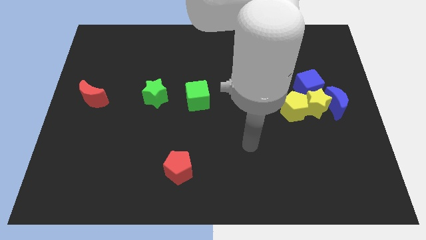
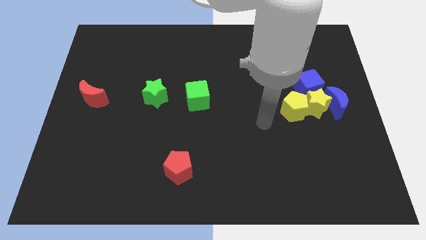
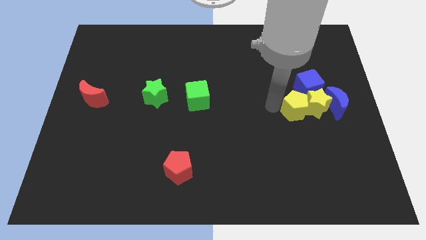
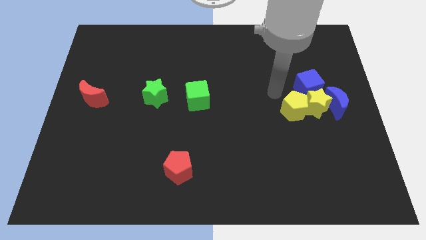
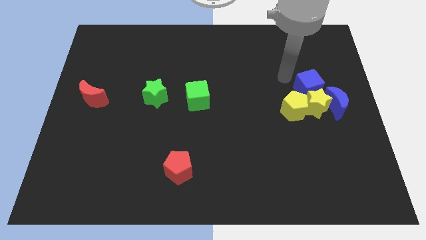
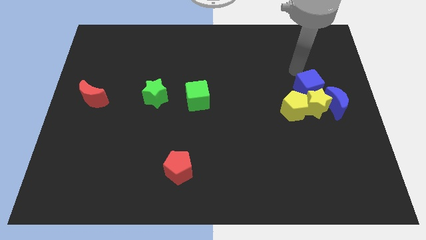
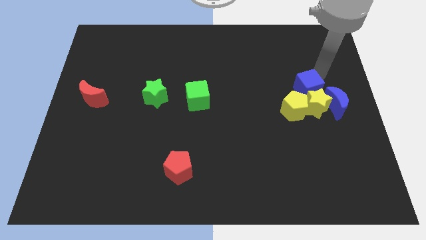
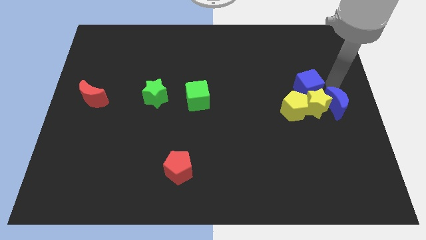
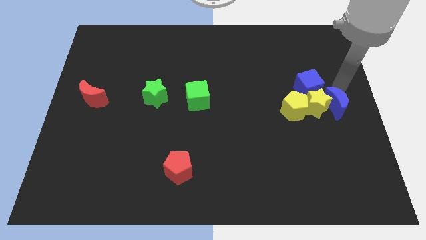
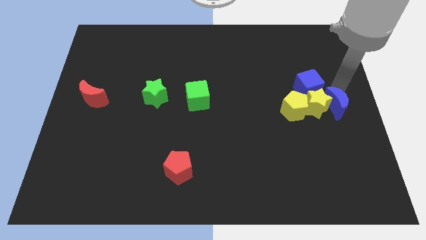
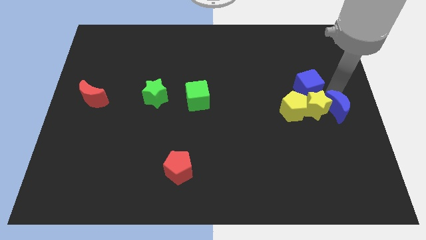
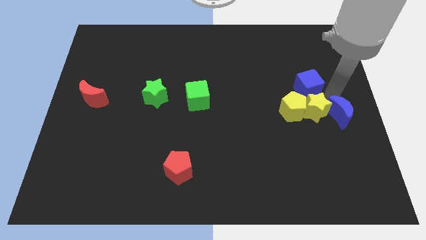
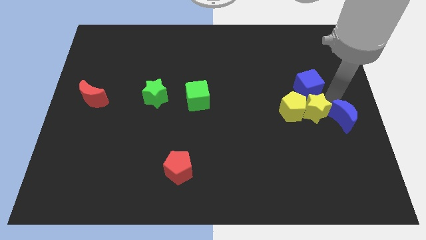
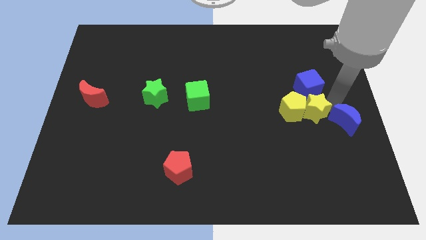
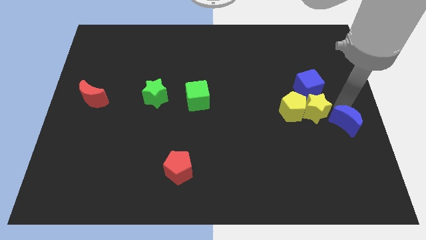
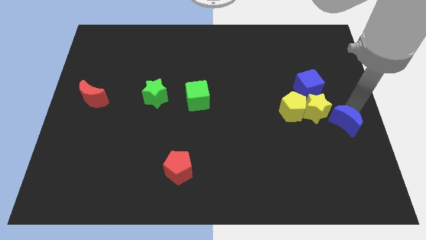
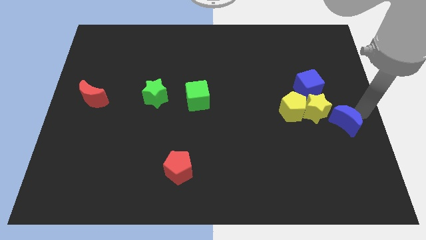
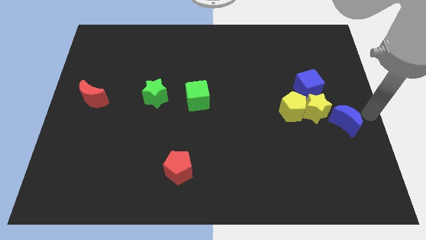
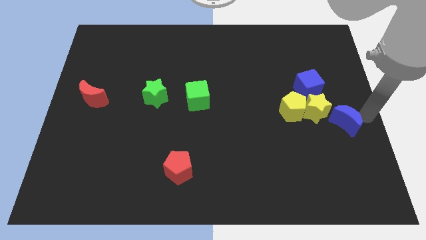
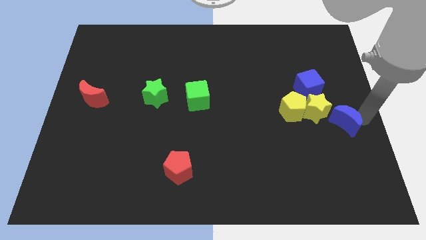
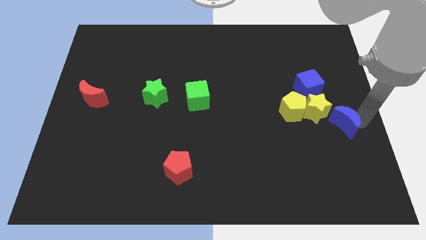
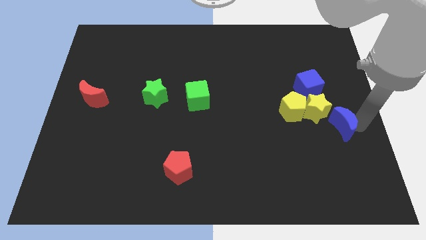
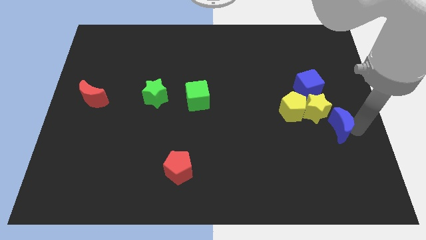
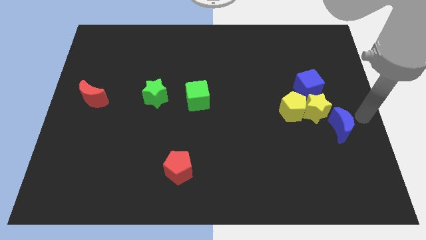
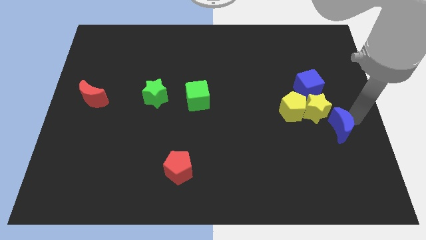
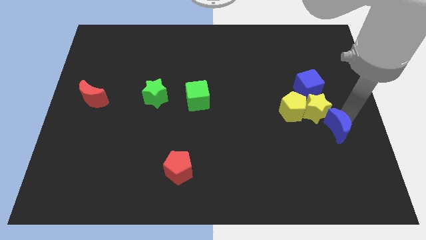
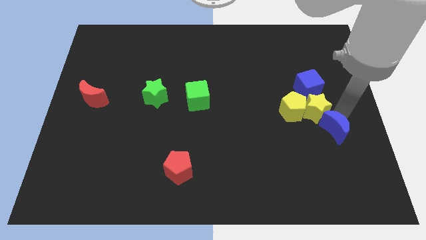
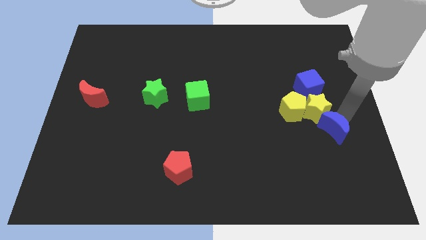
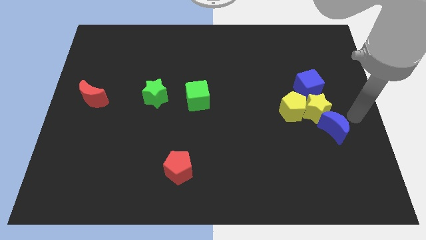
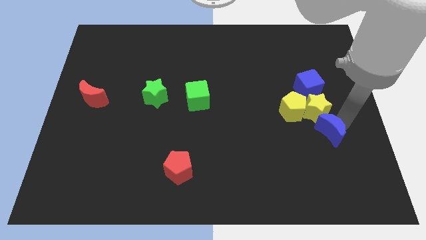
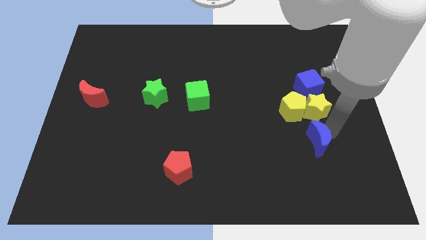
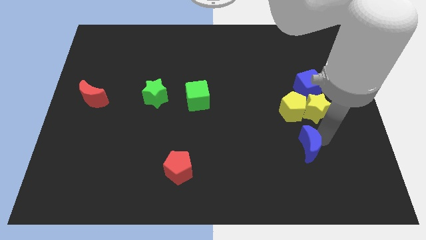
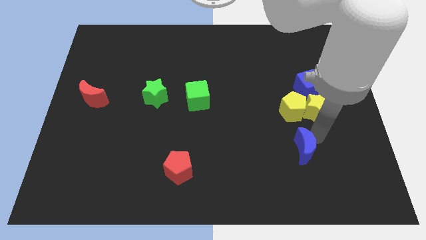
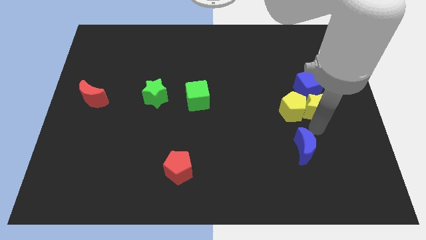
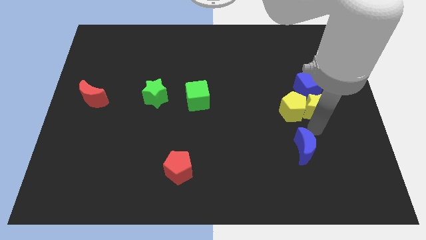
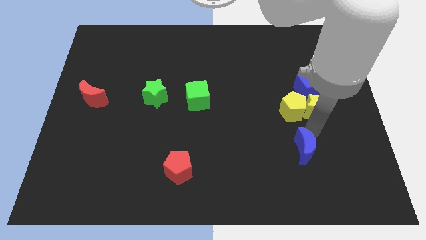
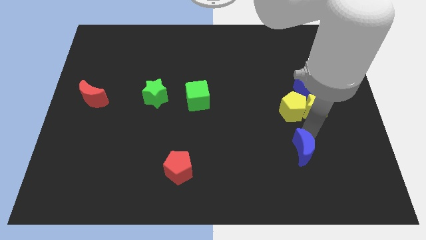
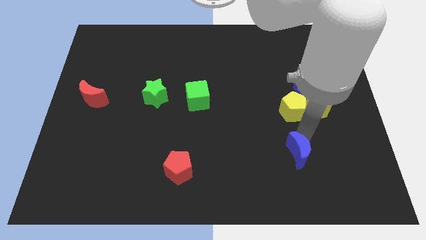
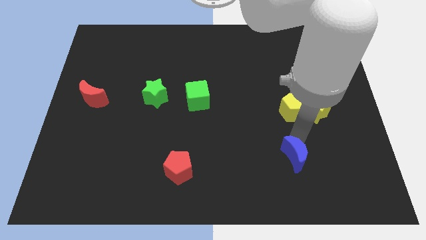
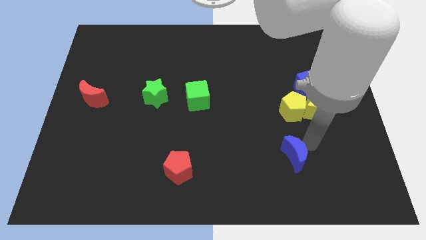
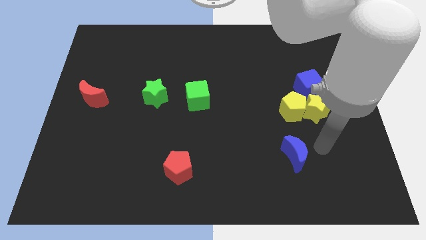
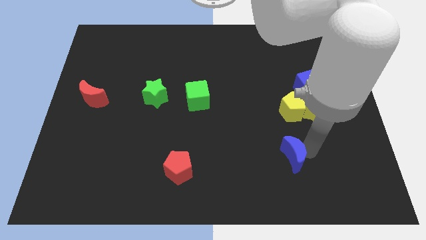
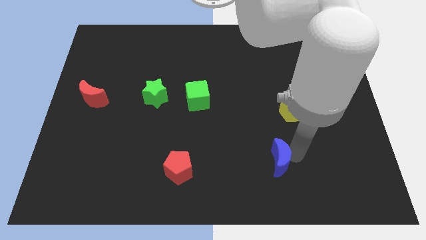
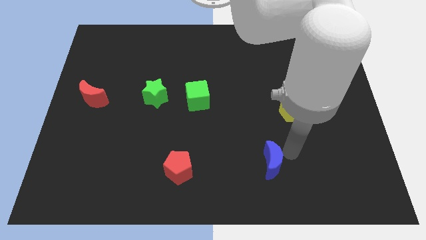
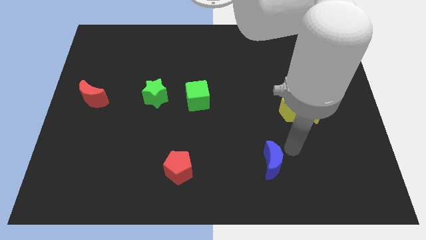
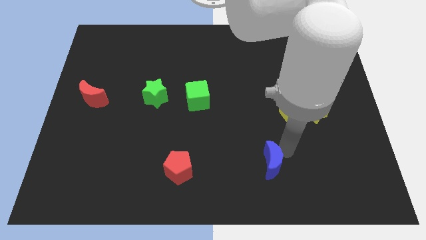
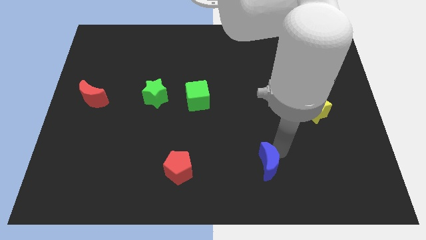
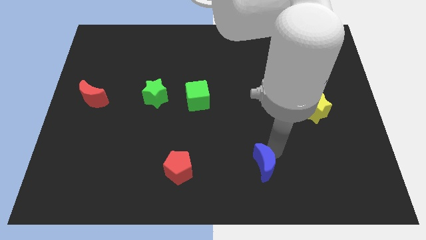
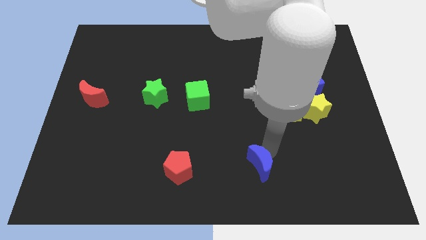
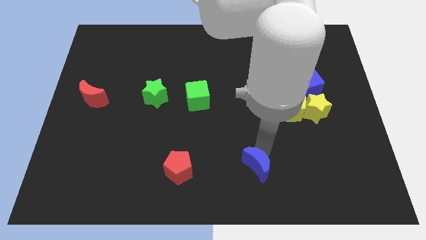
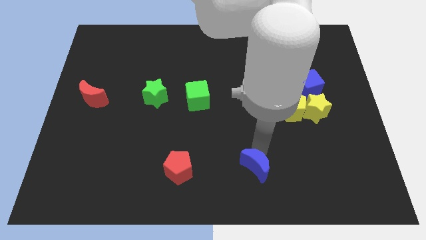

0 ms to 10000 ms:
push the blue moon to the bottom side

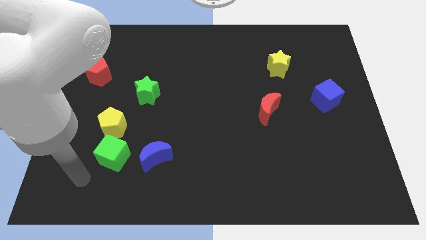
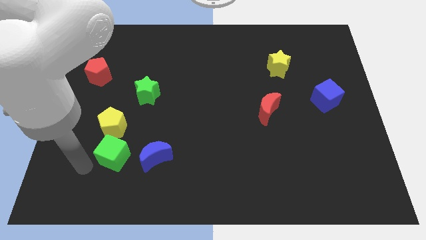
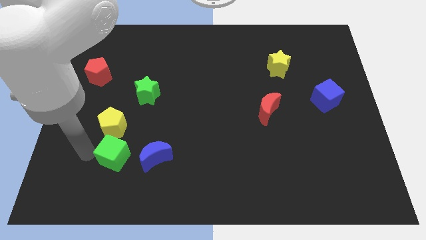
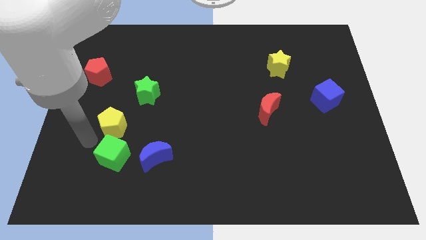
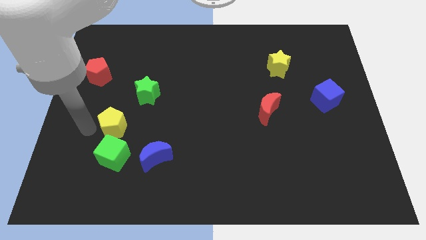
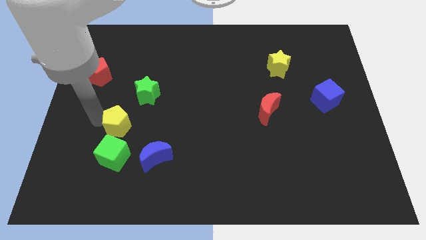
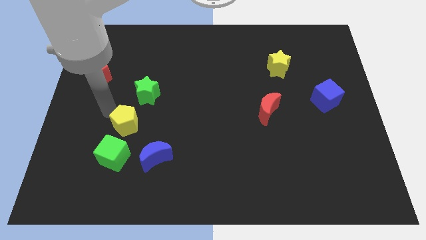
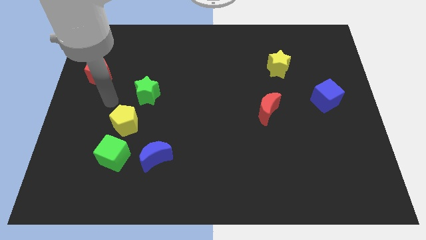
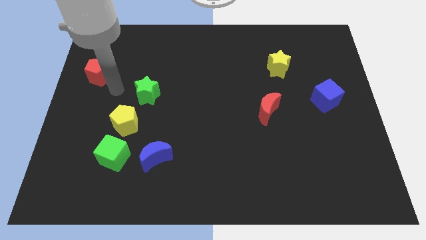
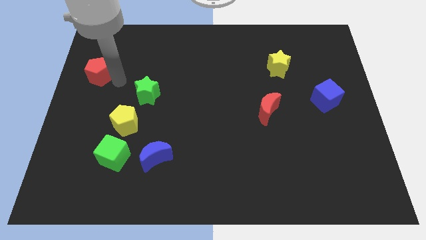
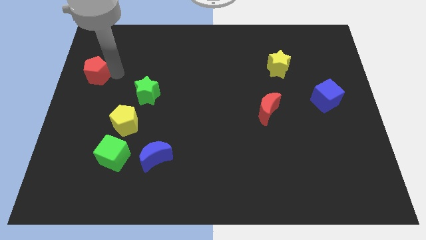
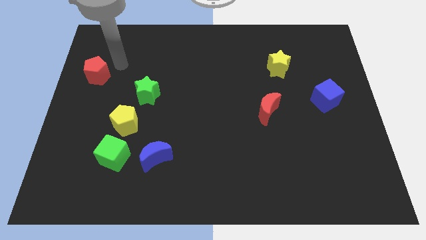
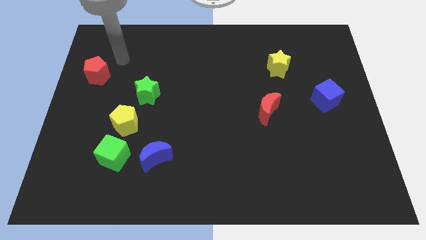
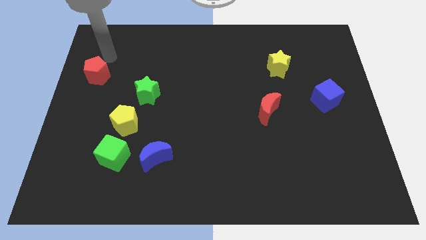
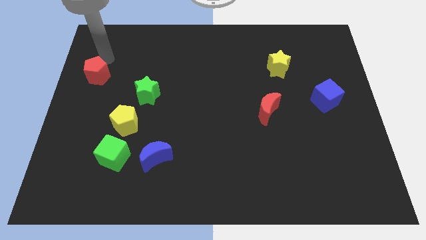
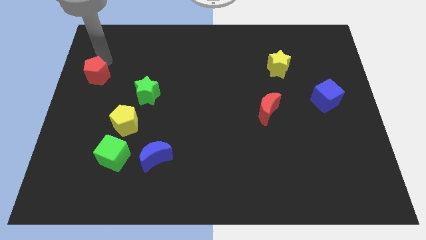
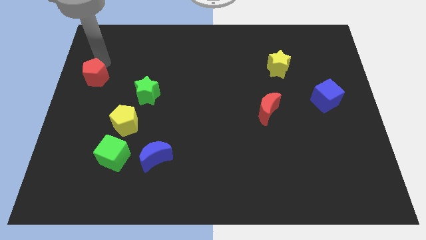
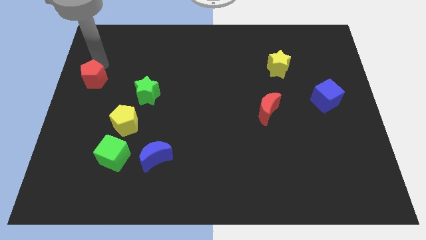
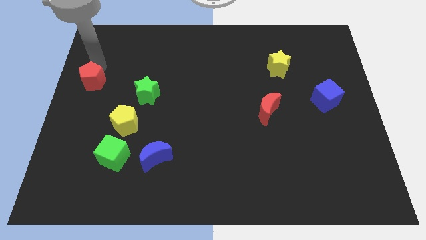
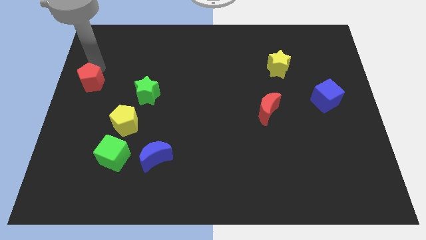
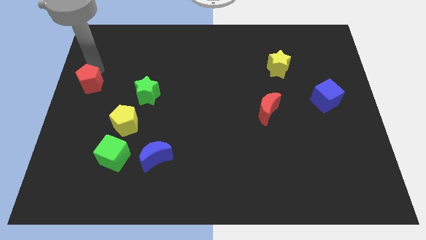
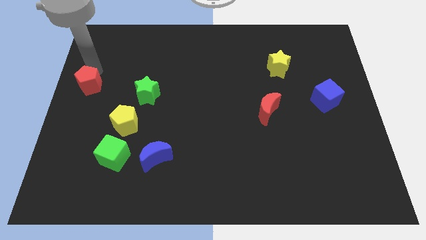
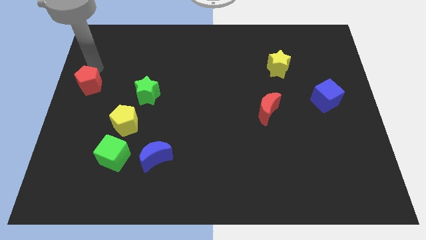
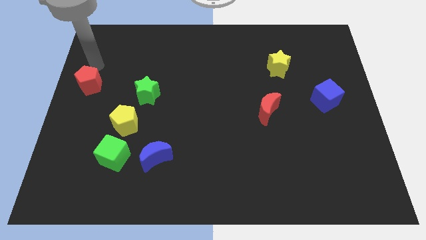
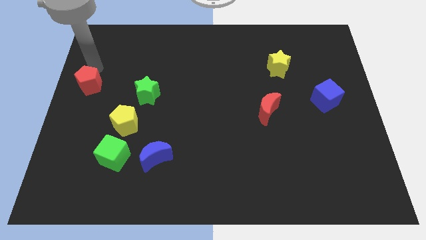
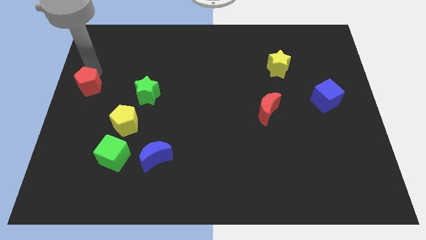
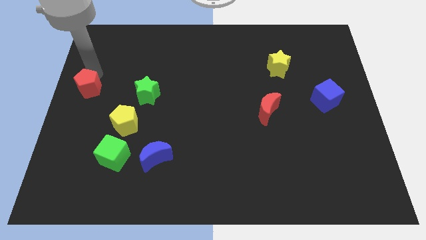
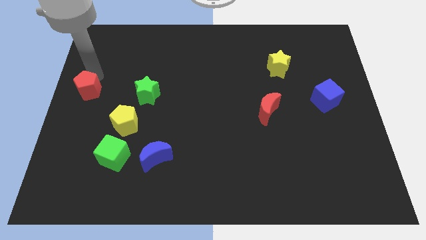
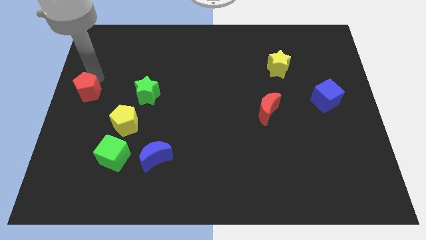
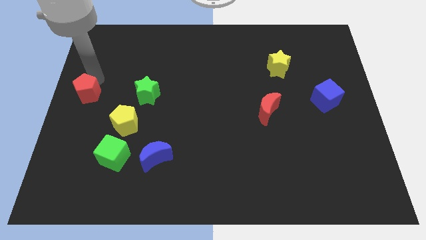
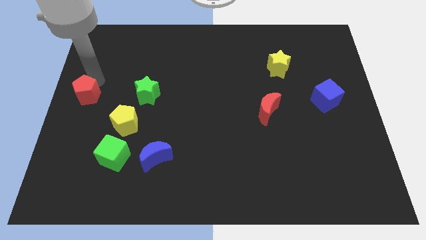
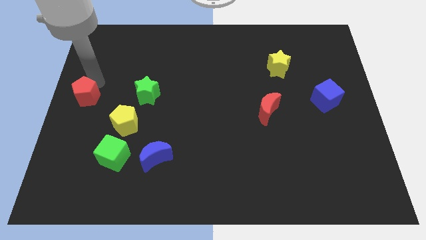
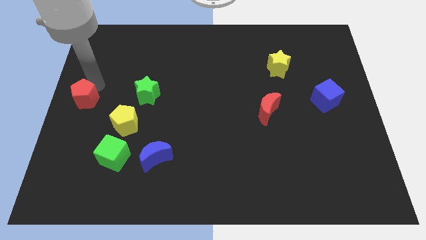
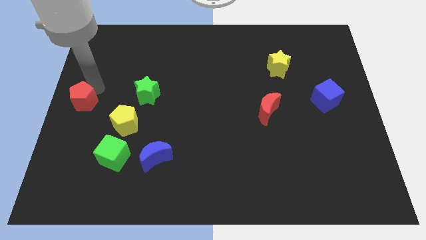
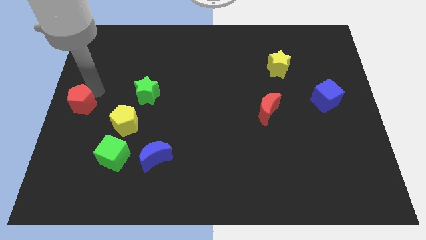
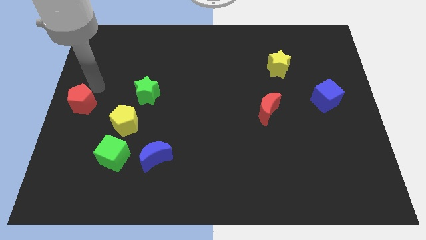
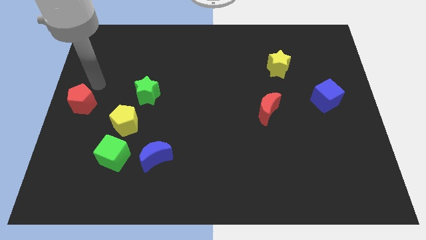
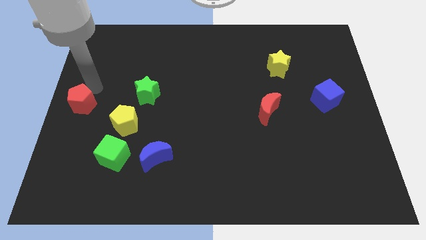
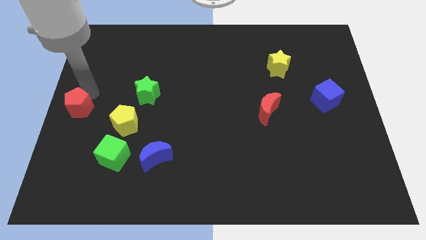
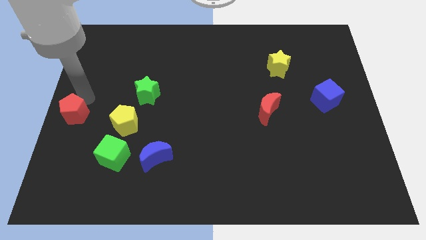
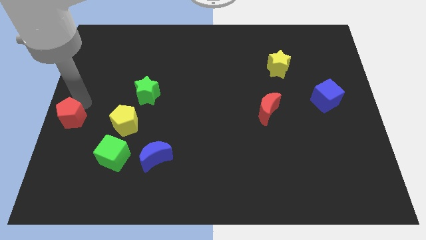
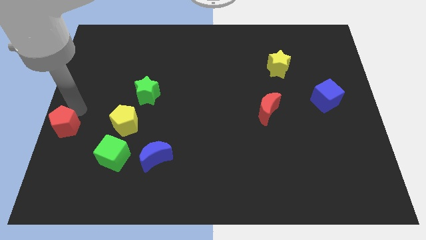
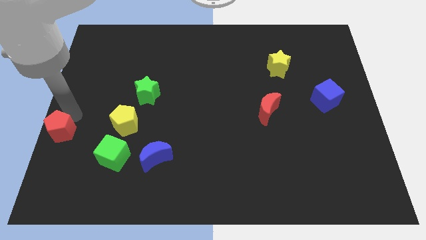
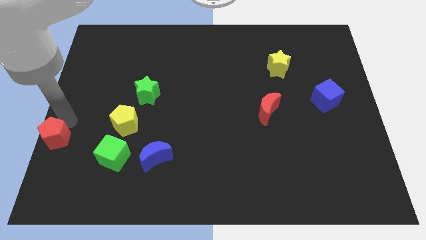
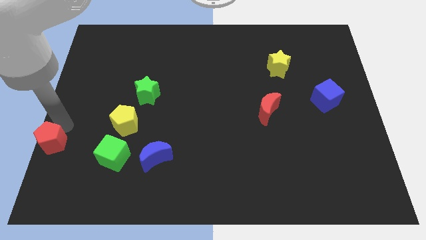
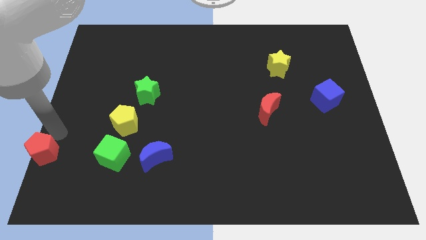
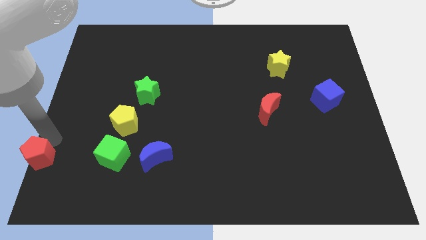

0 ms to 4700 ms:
move the red pentagon to the bottom left
